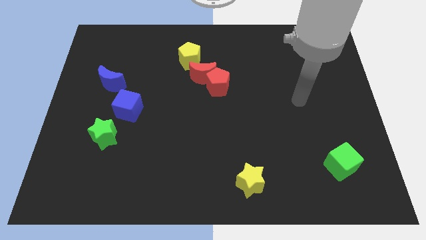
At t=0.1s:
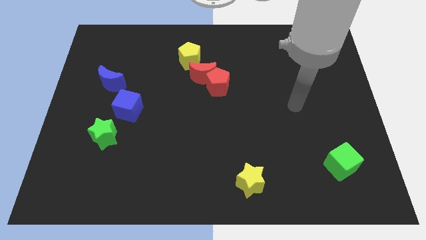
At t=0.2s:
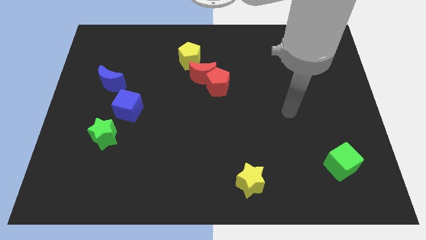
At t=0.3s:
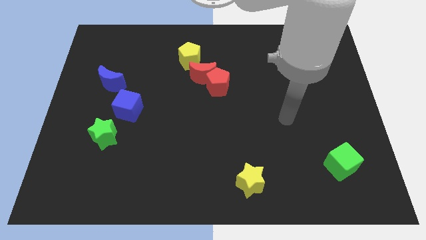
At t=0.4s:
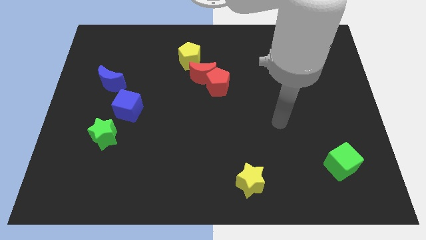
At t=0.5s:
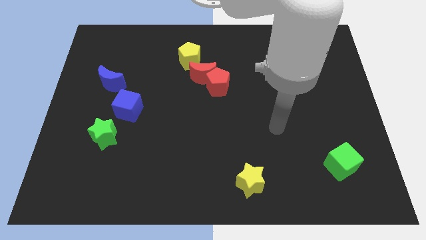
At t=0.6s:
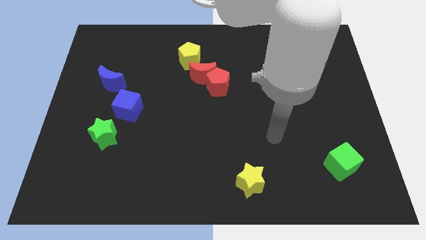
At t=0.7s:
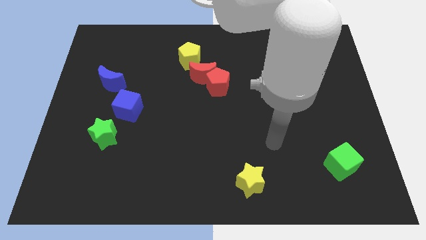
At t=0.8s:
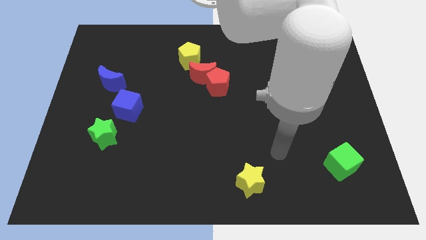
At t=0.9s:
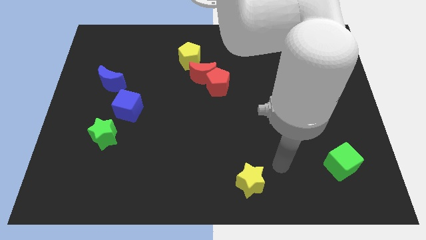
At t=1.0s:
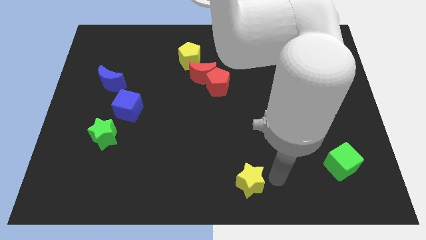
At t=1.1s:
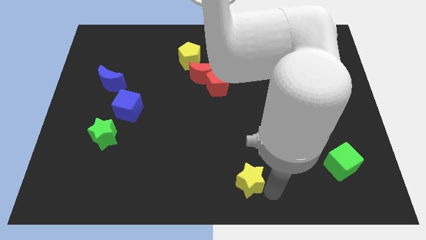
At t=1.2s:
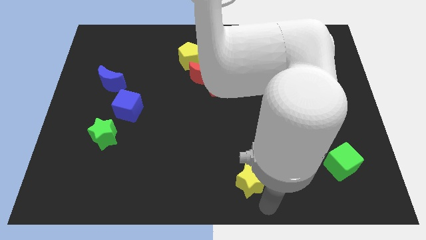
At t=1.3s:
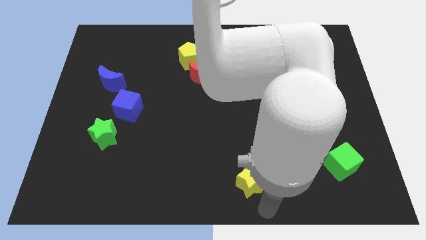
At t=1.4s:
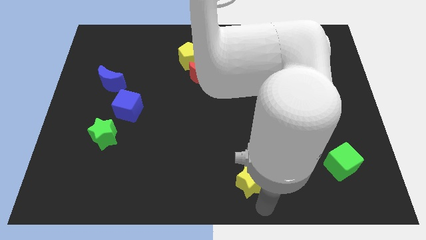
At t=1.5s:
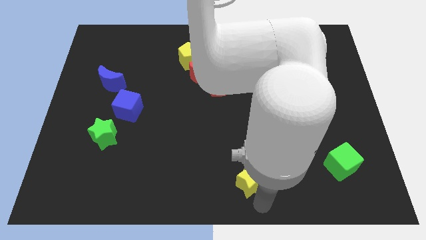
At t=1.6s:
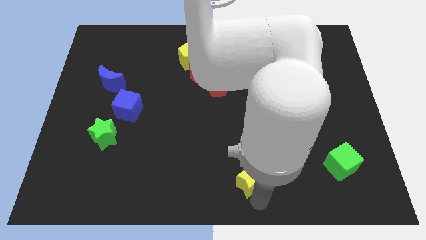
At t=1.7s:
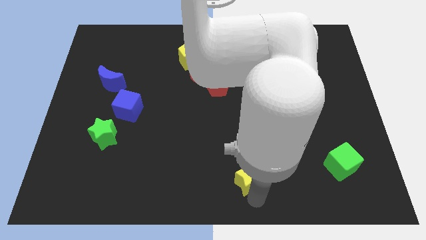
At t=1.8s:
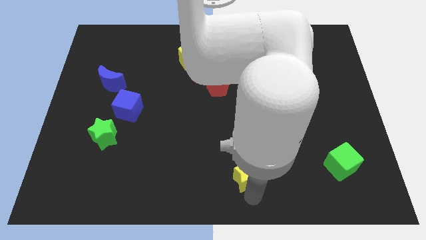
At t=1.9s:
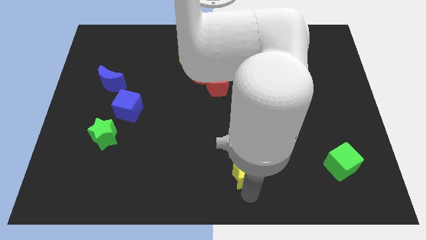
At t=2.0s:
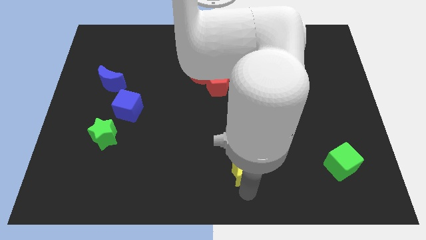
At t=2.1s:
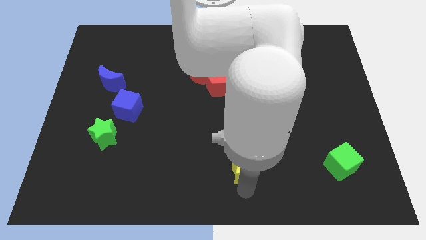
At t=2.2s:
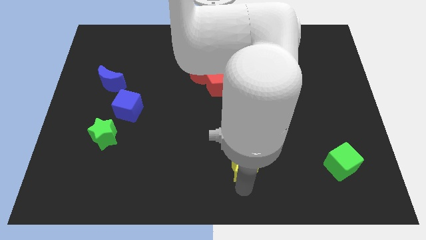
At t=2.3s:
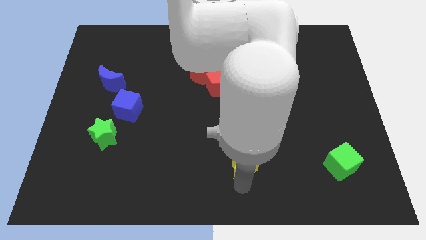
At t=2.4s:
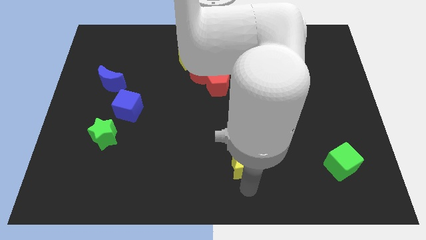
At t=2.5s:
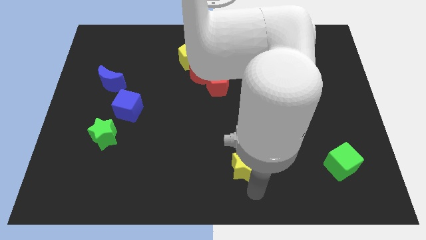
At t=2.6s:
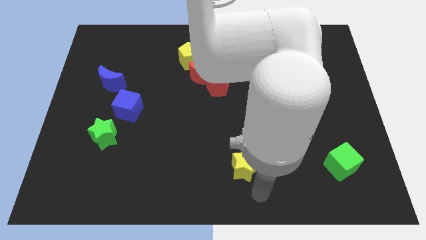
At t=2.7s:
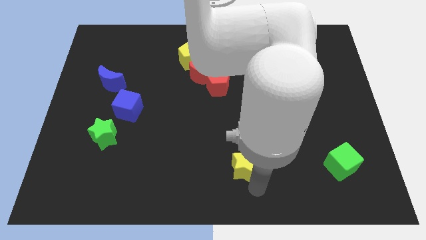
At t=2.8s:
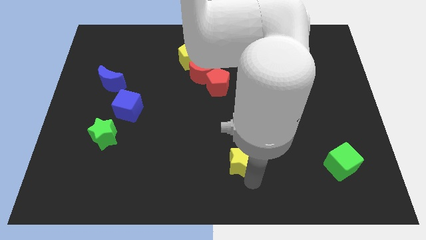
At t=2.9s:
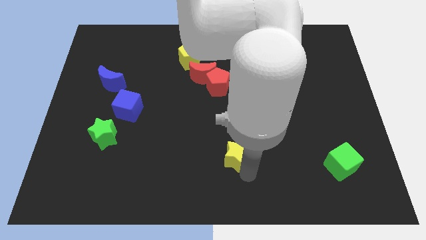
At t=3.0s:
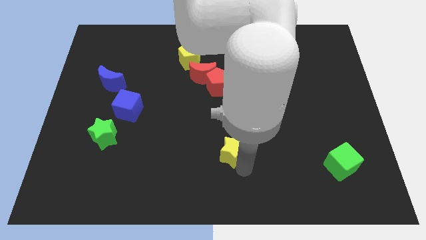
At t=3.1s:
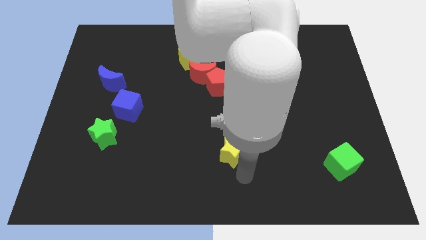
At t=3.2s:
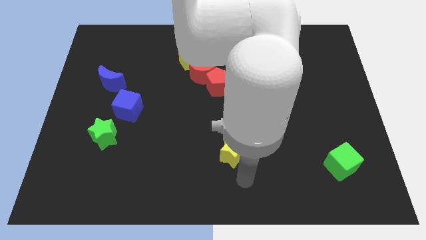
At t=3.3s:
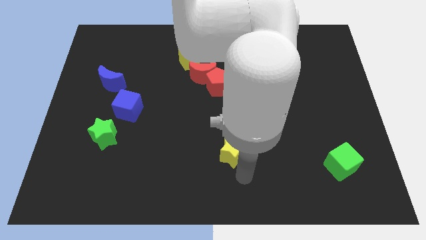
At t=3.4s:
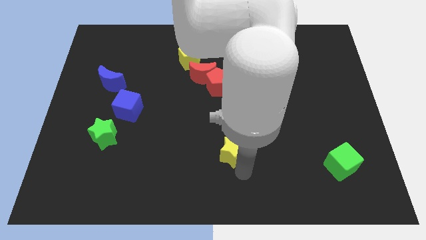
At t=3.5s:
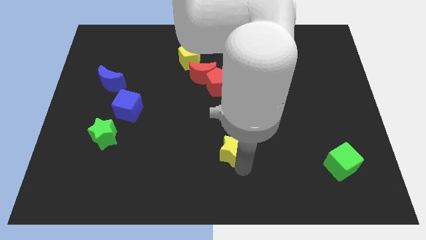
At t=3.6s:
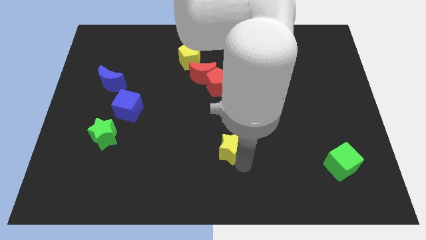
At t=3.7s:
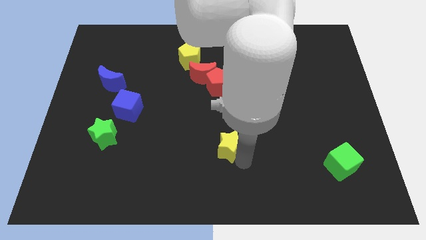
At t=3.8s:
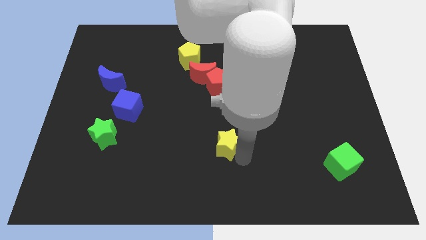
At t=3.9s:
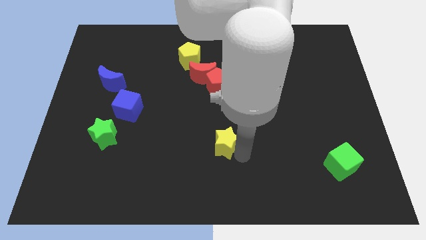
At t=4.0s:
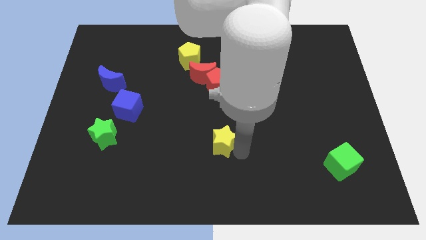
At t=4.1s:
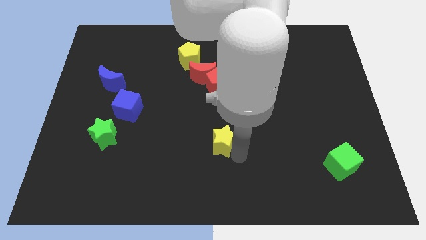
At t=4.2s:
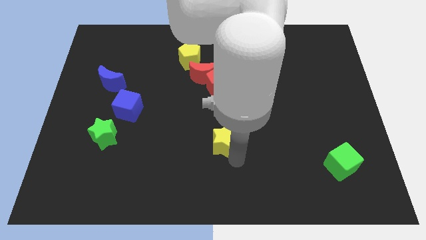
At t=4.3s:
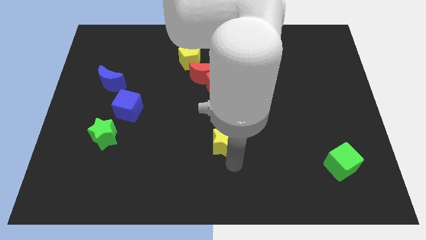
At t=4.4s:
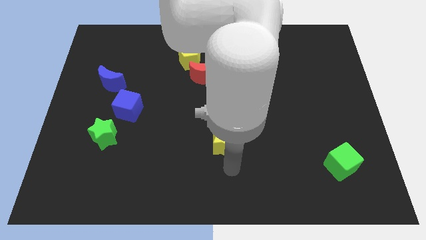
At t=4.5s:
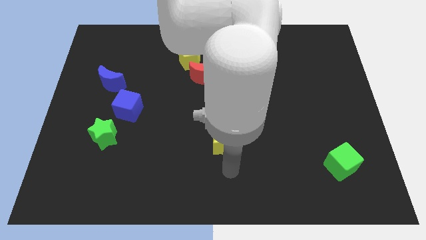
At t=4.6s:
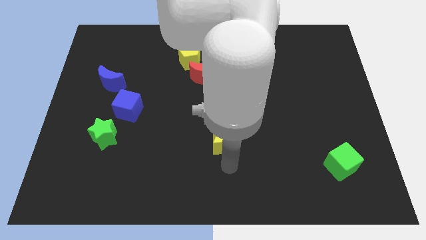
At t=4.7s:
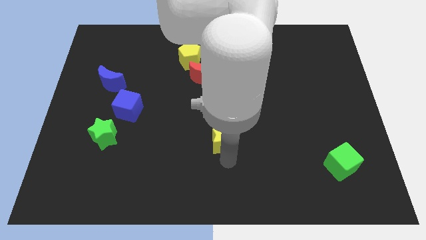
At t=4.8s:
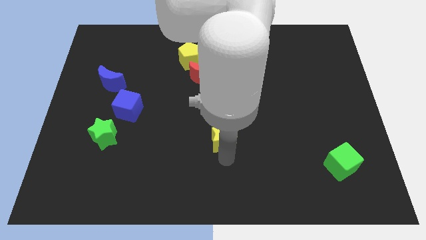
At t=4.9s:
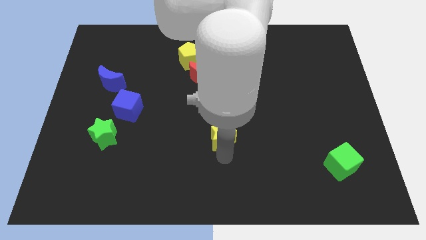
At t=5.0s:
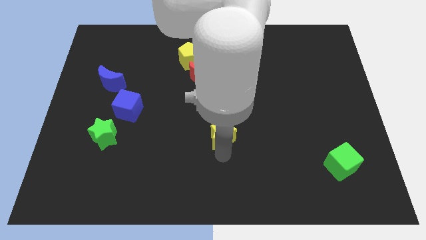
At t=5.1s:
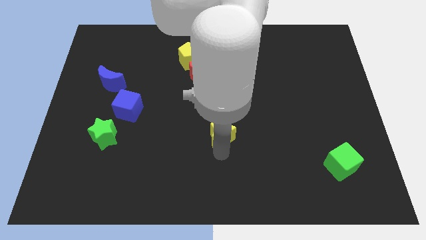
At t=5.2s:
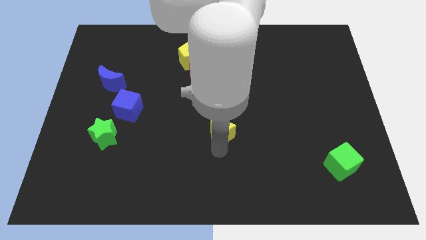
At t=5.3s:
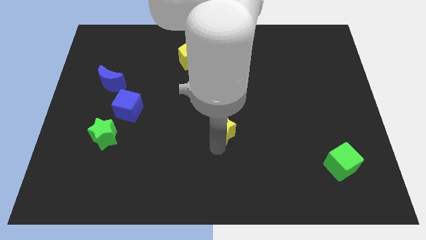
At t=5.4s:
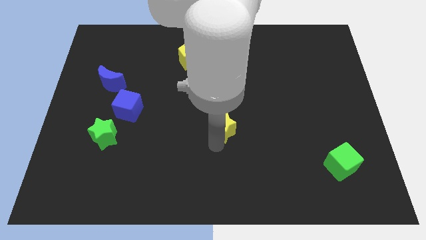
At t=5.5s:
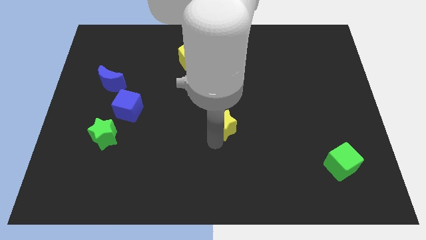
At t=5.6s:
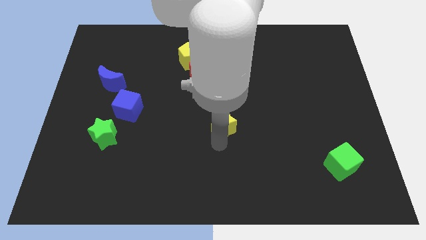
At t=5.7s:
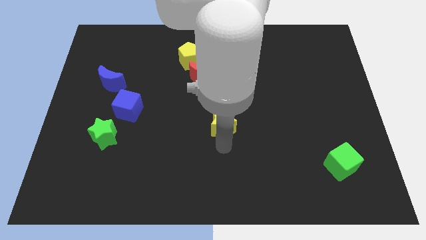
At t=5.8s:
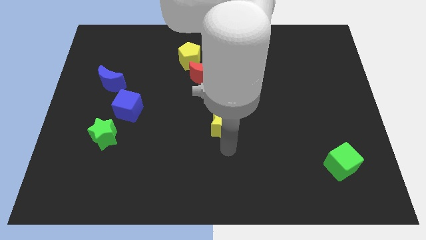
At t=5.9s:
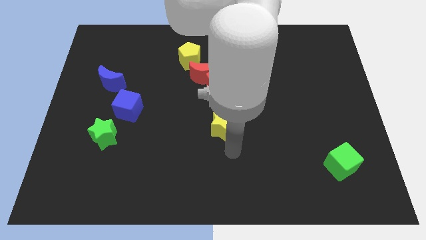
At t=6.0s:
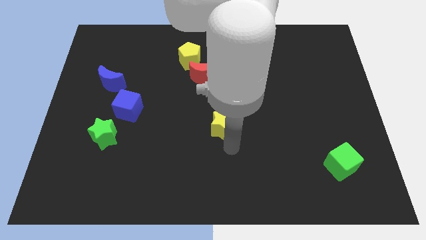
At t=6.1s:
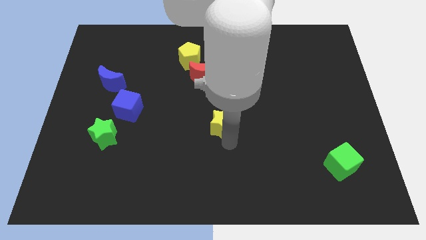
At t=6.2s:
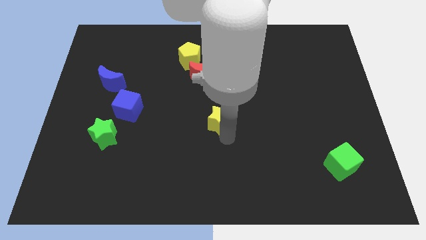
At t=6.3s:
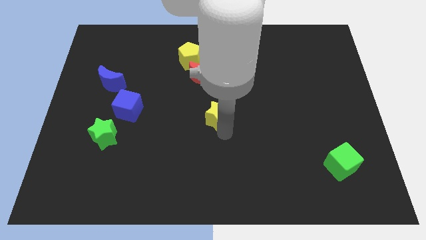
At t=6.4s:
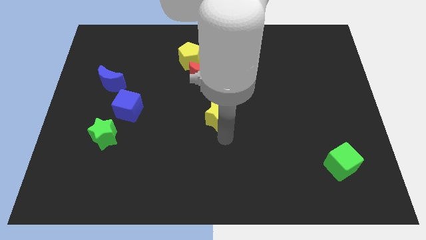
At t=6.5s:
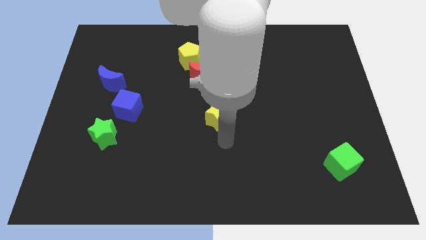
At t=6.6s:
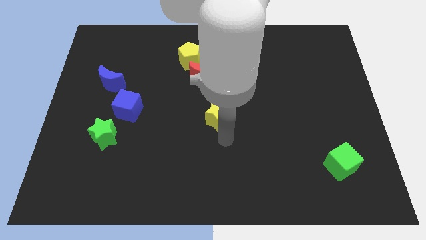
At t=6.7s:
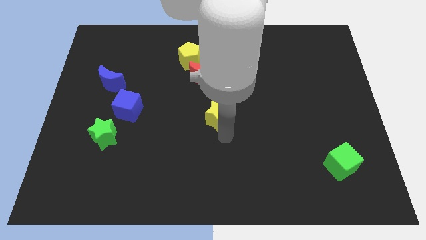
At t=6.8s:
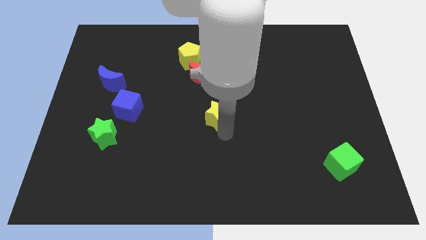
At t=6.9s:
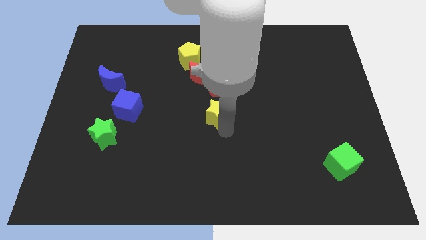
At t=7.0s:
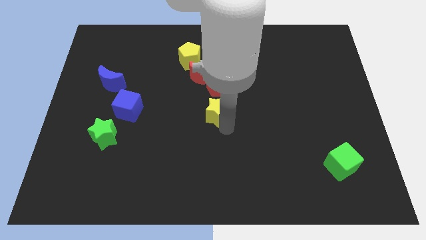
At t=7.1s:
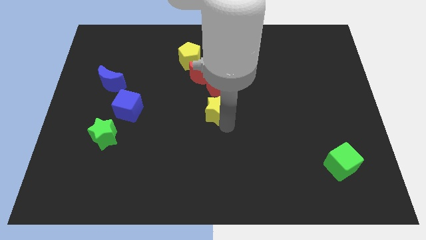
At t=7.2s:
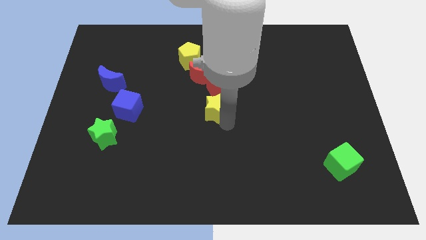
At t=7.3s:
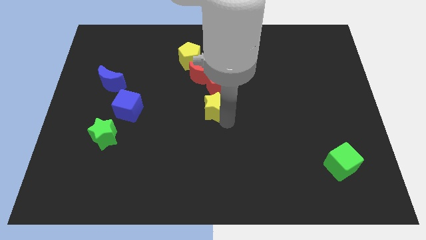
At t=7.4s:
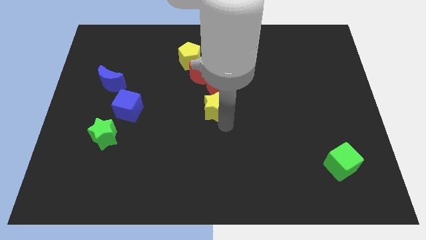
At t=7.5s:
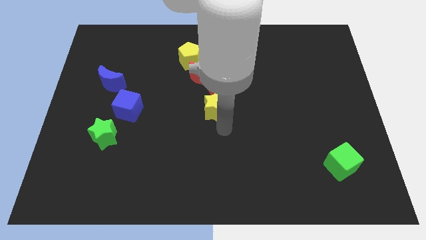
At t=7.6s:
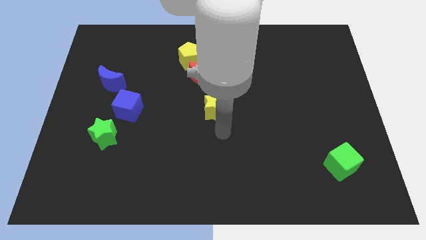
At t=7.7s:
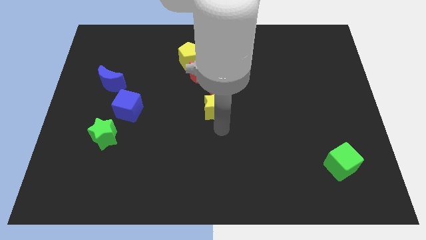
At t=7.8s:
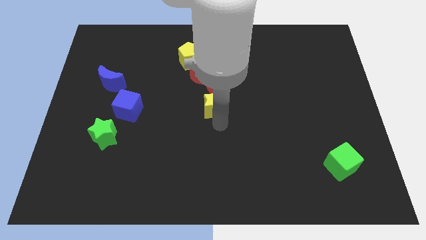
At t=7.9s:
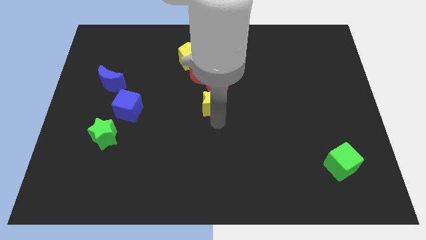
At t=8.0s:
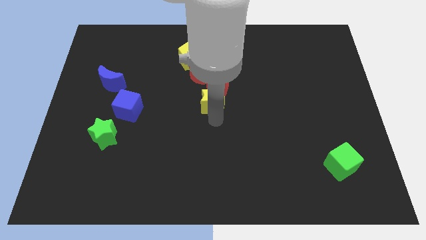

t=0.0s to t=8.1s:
move the yellow star next to the red pentagon
